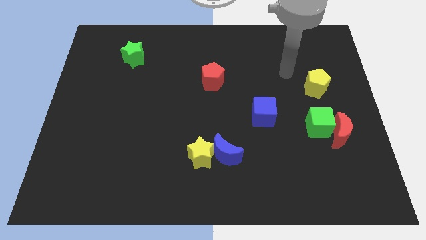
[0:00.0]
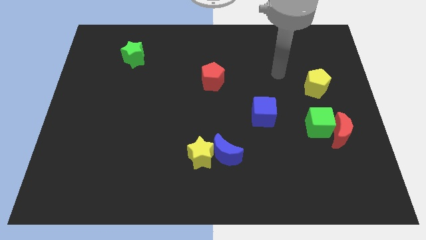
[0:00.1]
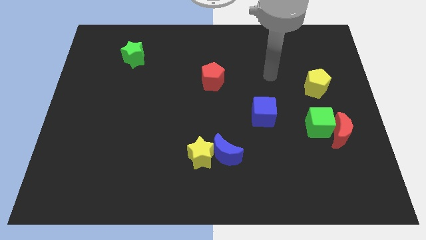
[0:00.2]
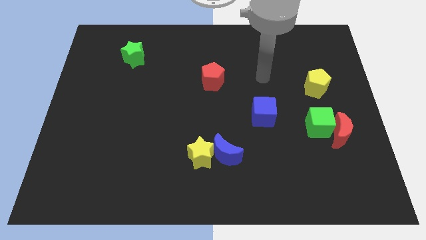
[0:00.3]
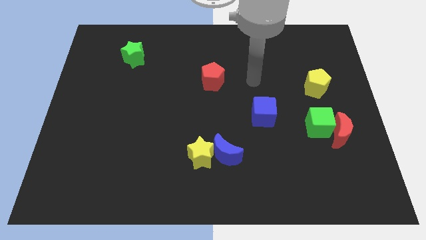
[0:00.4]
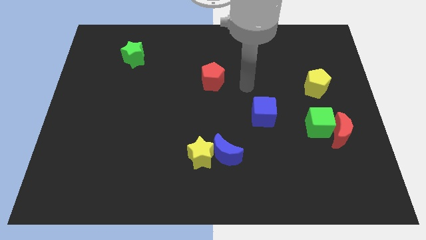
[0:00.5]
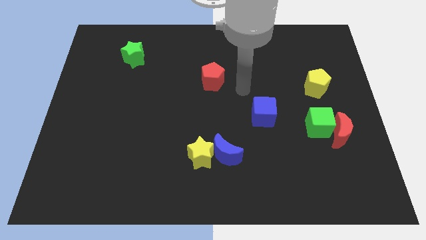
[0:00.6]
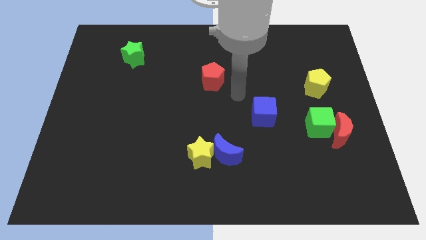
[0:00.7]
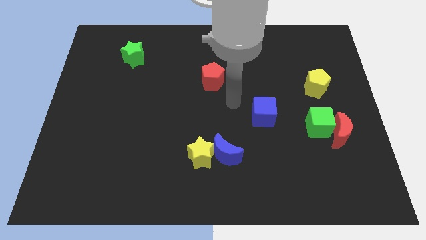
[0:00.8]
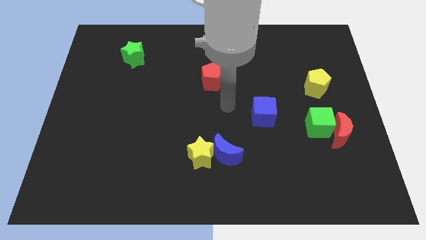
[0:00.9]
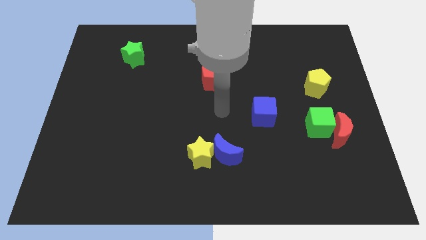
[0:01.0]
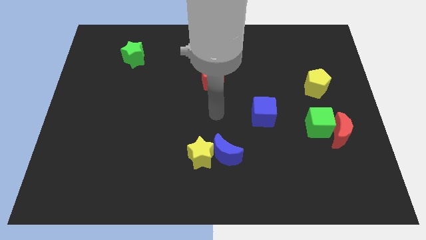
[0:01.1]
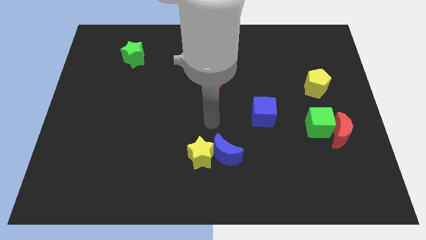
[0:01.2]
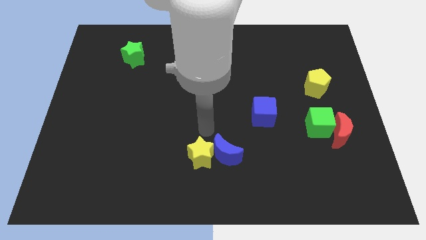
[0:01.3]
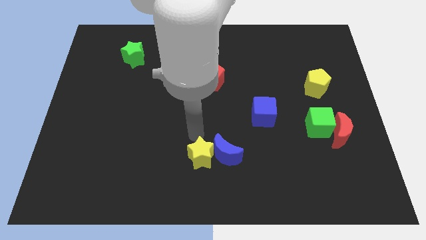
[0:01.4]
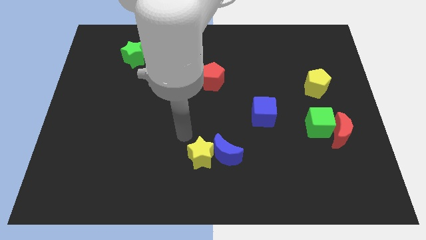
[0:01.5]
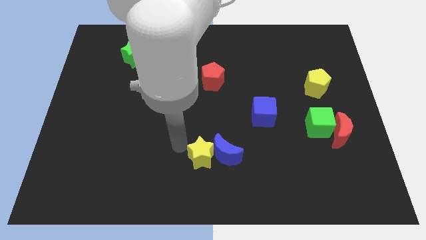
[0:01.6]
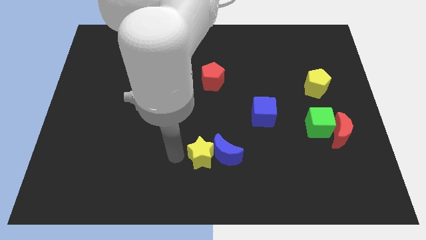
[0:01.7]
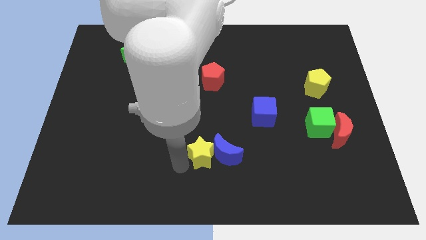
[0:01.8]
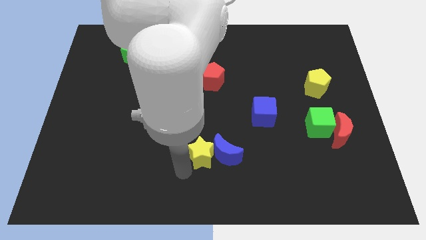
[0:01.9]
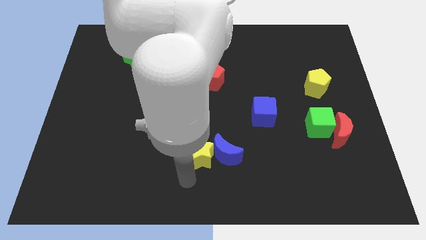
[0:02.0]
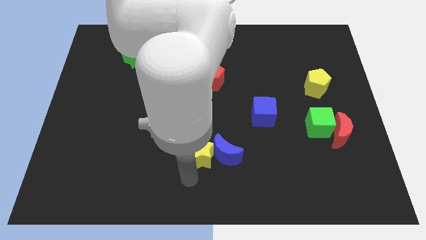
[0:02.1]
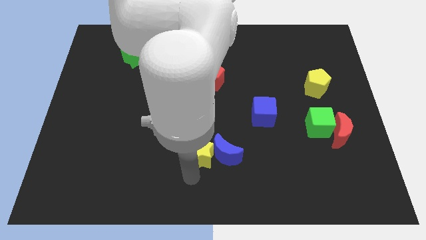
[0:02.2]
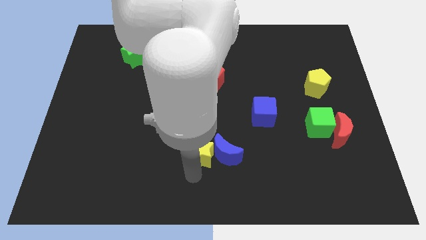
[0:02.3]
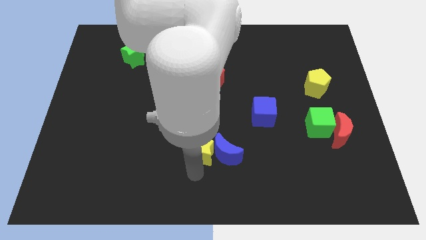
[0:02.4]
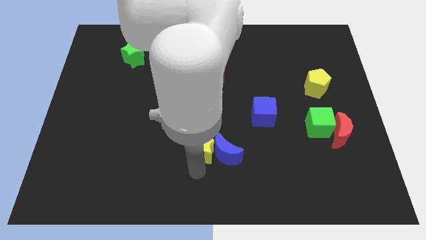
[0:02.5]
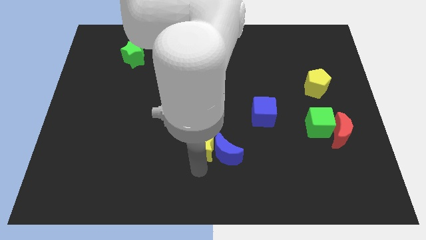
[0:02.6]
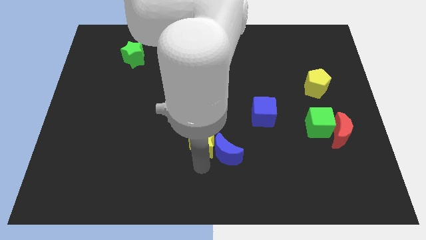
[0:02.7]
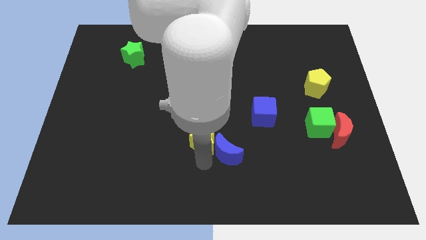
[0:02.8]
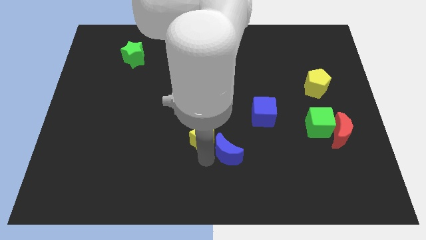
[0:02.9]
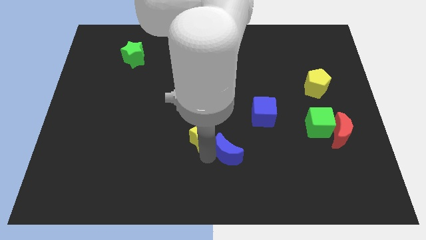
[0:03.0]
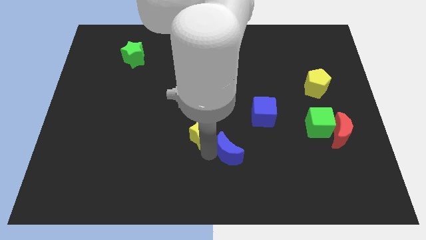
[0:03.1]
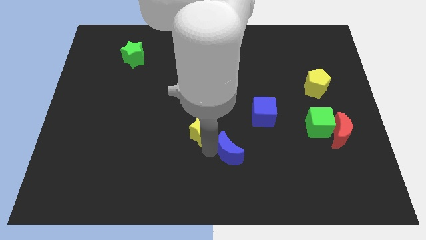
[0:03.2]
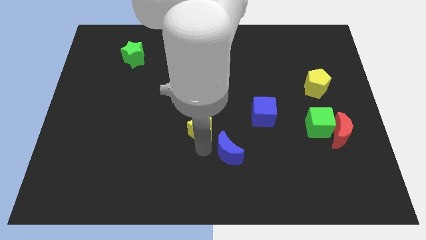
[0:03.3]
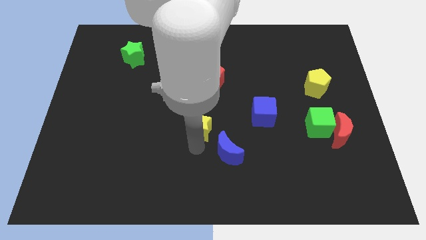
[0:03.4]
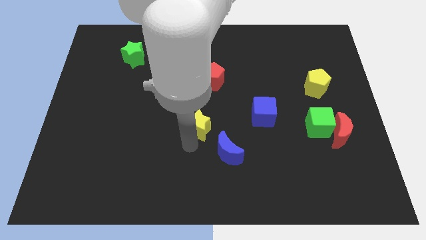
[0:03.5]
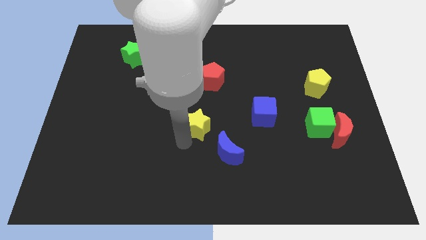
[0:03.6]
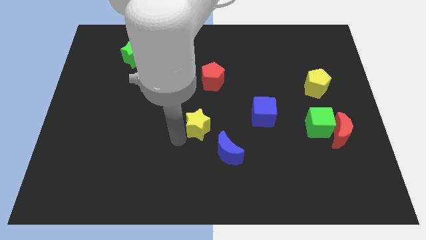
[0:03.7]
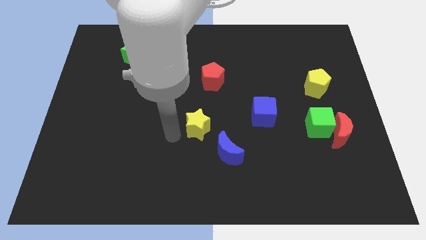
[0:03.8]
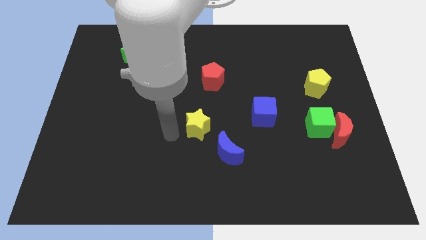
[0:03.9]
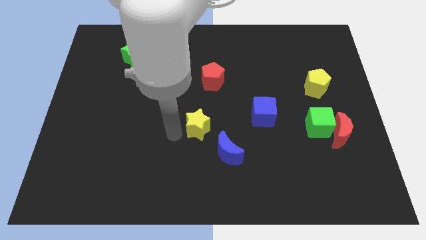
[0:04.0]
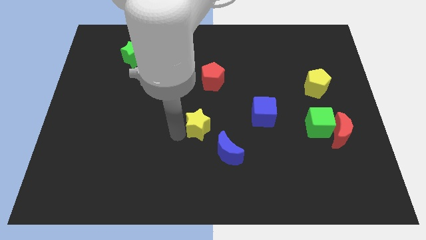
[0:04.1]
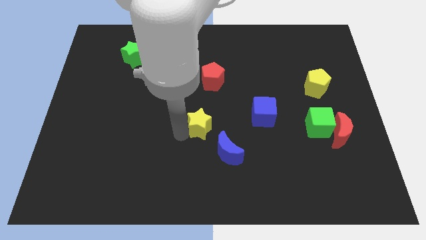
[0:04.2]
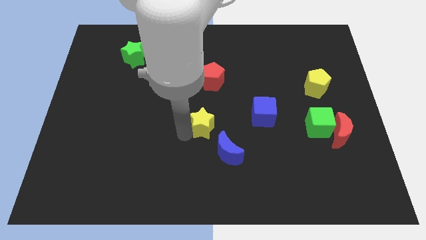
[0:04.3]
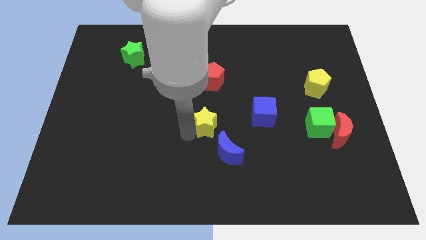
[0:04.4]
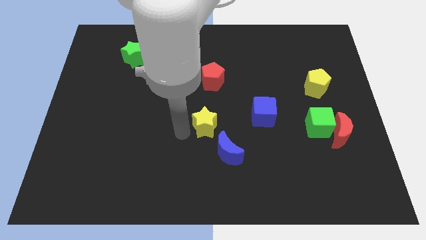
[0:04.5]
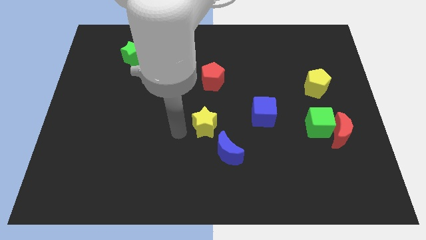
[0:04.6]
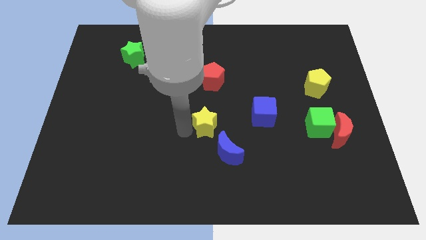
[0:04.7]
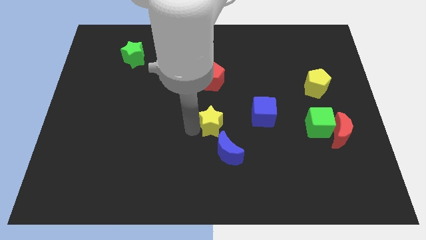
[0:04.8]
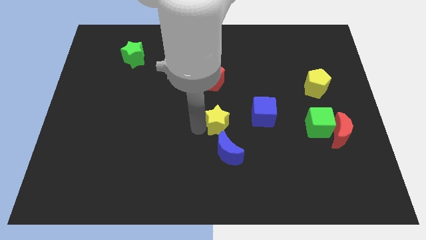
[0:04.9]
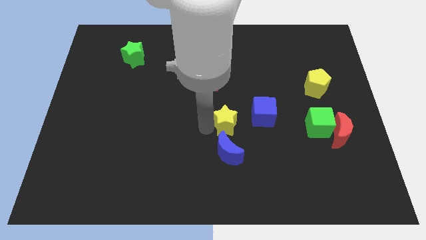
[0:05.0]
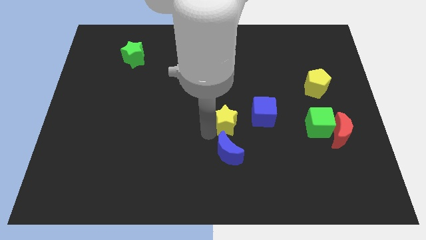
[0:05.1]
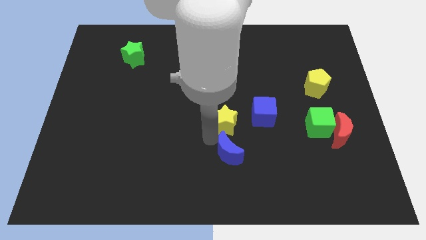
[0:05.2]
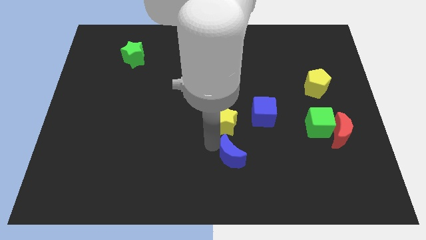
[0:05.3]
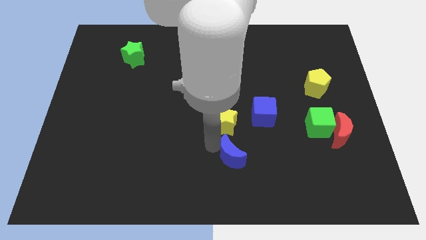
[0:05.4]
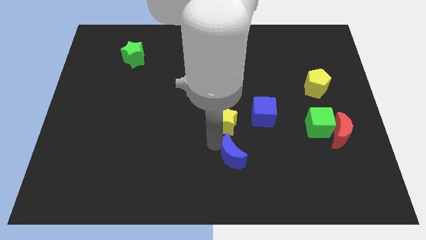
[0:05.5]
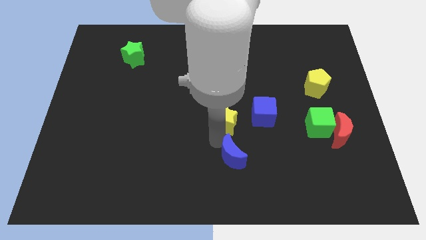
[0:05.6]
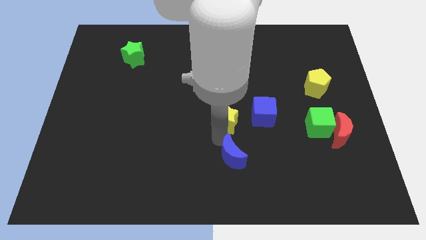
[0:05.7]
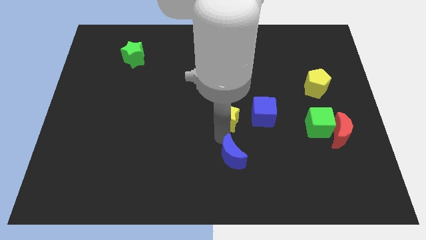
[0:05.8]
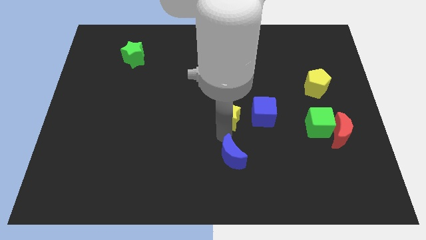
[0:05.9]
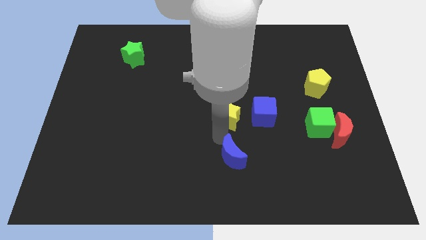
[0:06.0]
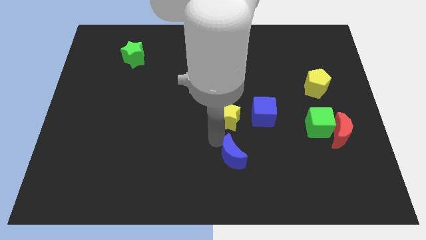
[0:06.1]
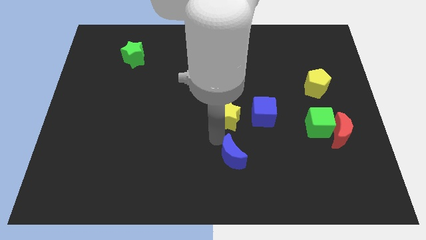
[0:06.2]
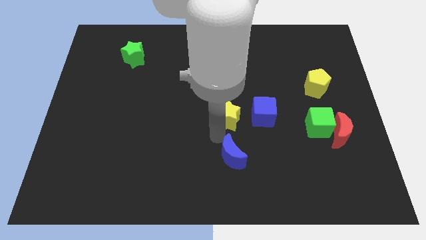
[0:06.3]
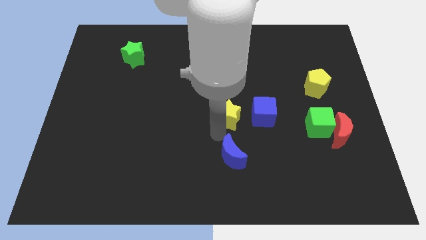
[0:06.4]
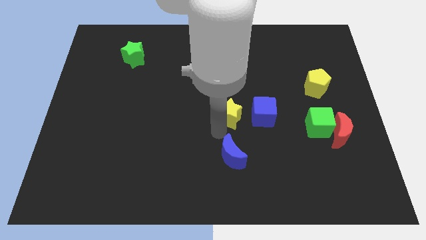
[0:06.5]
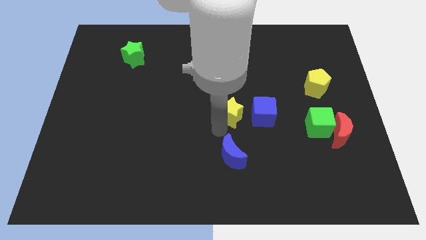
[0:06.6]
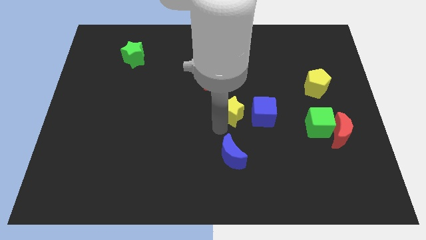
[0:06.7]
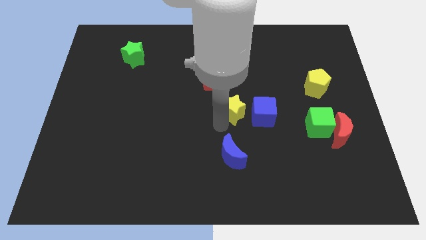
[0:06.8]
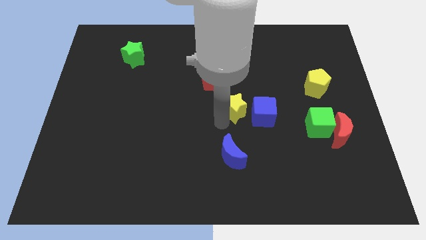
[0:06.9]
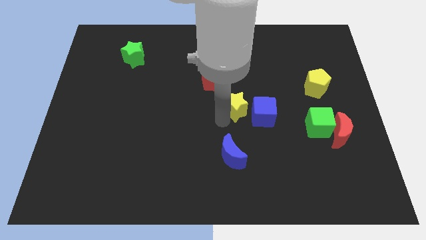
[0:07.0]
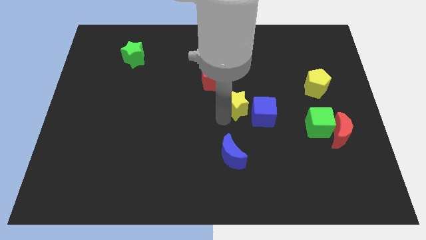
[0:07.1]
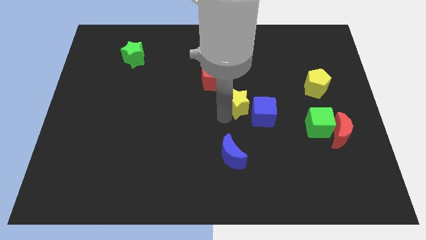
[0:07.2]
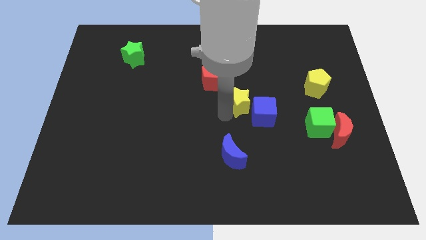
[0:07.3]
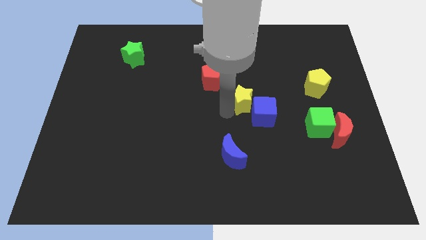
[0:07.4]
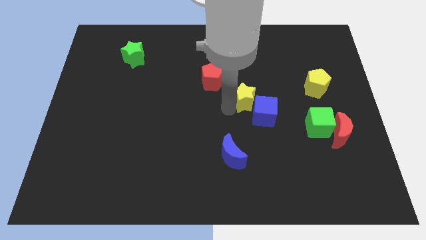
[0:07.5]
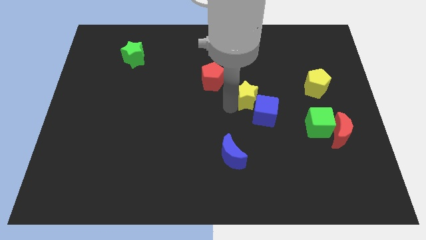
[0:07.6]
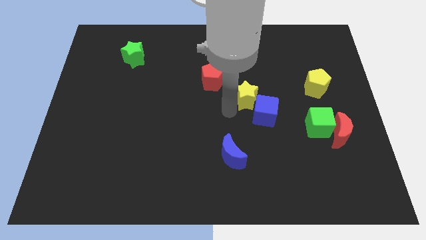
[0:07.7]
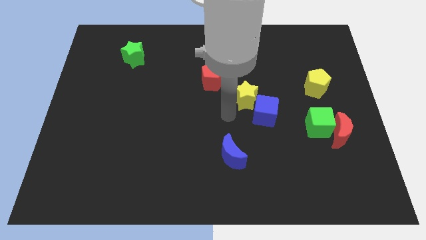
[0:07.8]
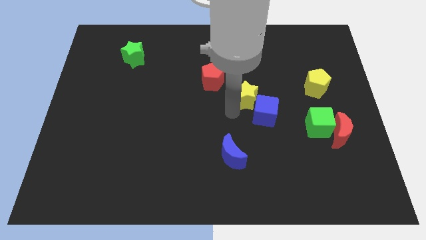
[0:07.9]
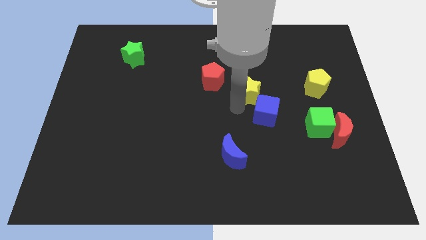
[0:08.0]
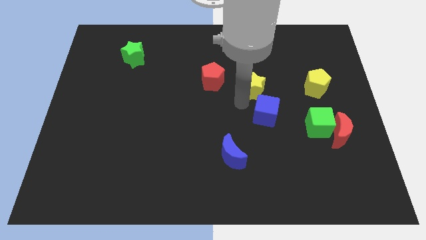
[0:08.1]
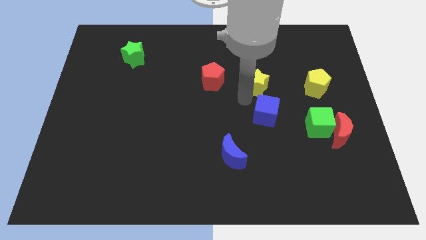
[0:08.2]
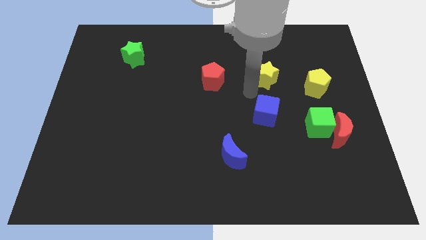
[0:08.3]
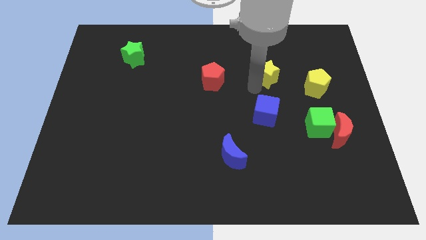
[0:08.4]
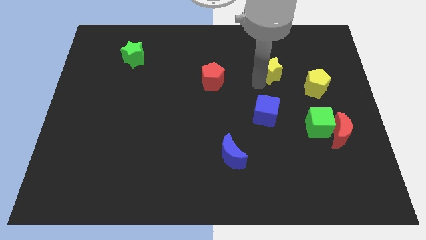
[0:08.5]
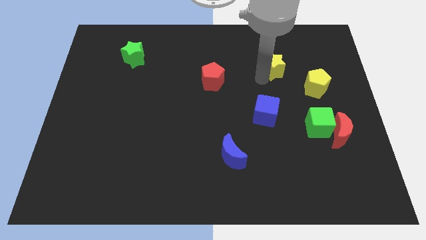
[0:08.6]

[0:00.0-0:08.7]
slide the yellow star to the top left of the yellow pentagon
